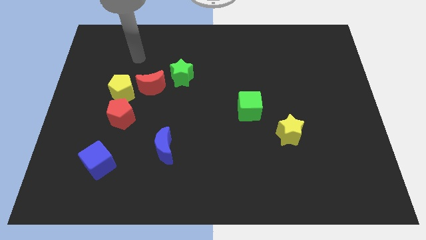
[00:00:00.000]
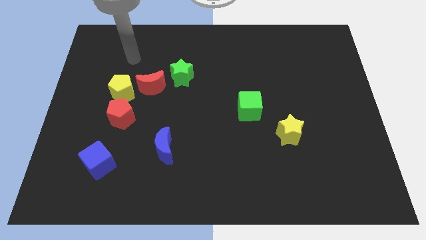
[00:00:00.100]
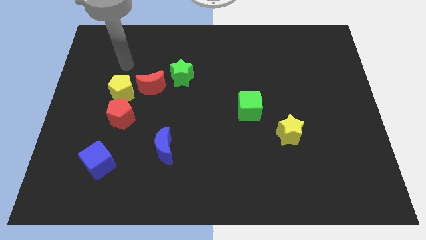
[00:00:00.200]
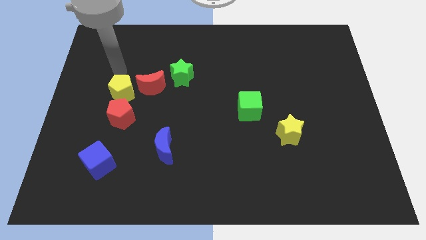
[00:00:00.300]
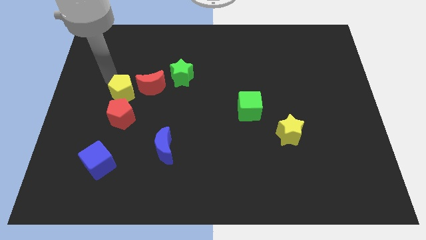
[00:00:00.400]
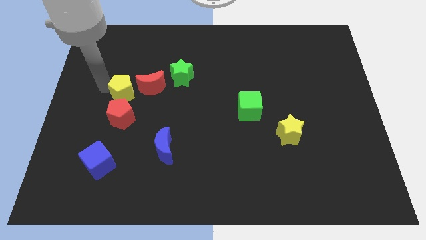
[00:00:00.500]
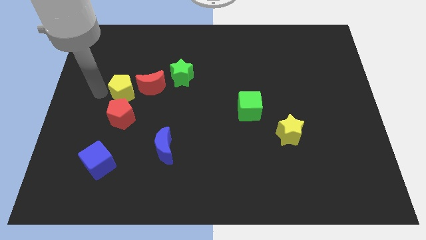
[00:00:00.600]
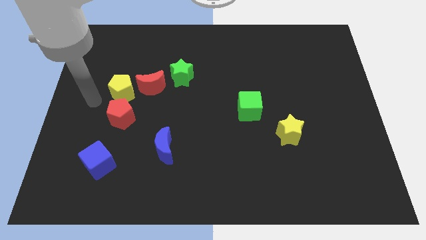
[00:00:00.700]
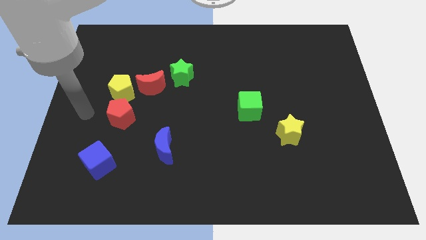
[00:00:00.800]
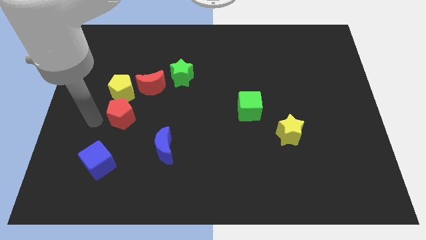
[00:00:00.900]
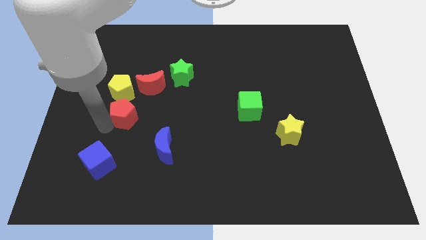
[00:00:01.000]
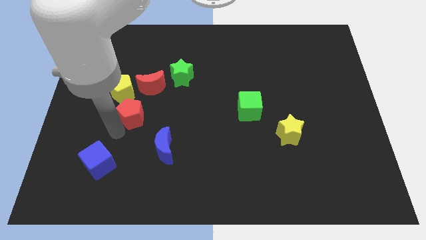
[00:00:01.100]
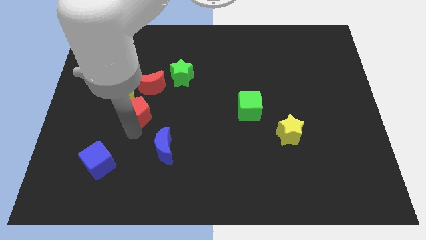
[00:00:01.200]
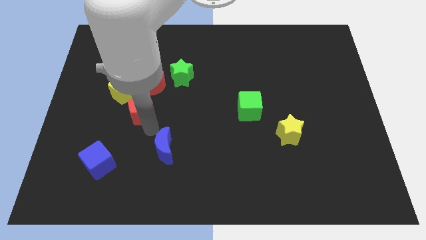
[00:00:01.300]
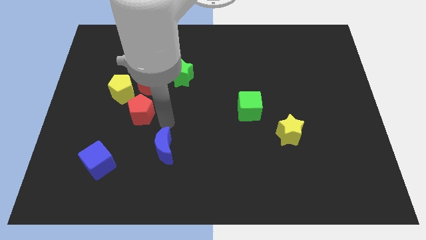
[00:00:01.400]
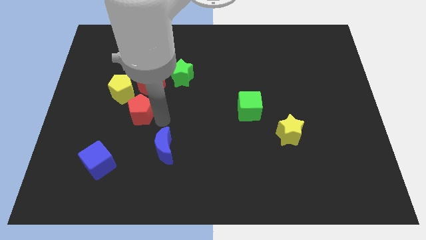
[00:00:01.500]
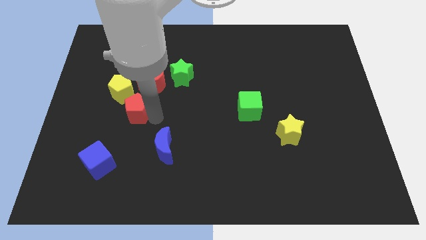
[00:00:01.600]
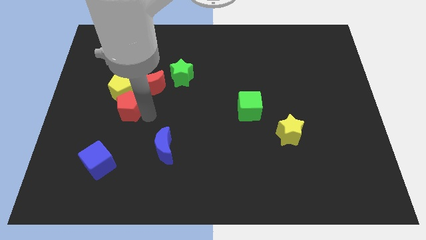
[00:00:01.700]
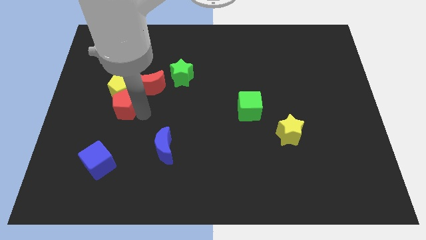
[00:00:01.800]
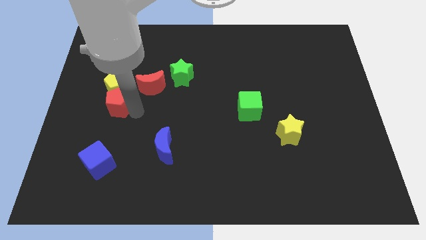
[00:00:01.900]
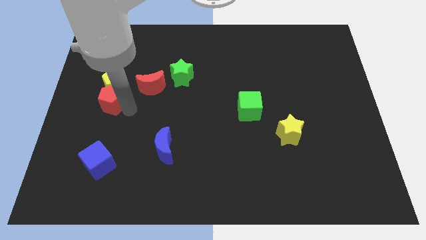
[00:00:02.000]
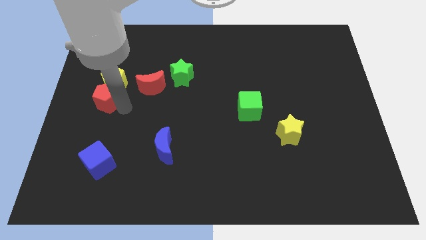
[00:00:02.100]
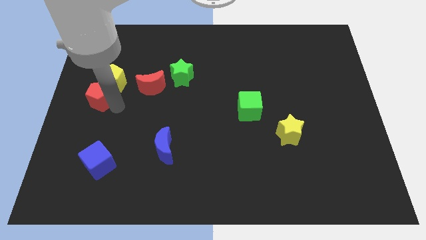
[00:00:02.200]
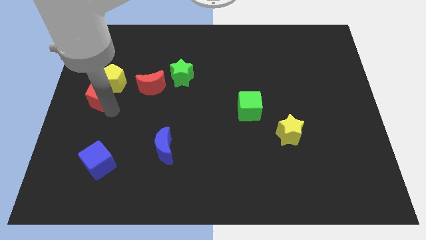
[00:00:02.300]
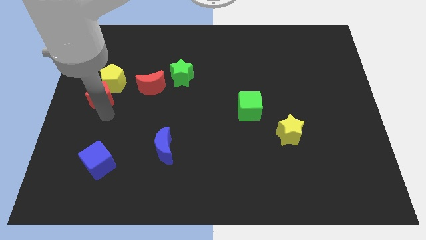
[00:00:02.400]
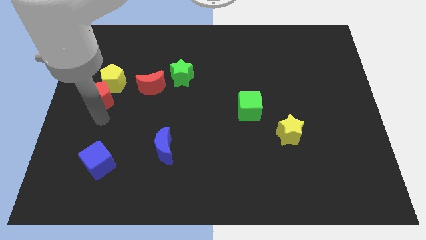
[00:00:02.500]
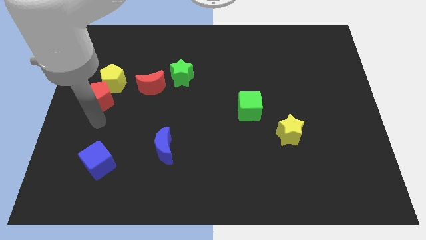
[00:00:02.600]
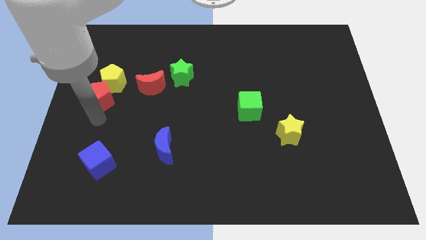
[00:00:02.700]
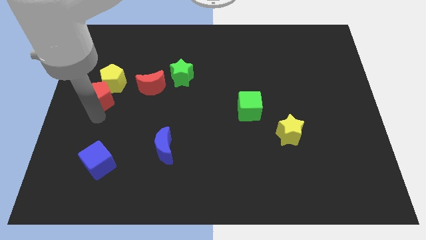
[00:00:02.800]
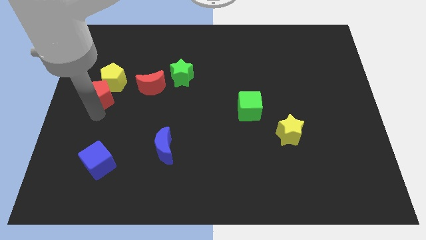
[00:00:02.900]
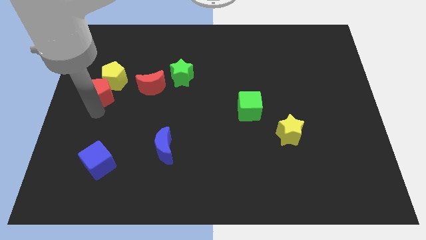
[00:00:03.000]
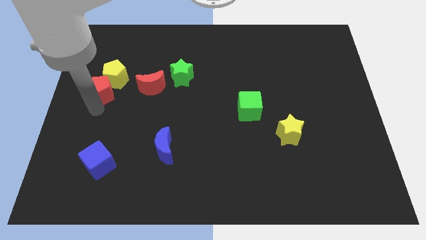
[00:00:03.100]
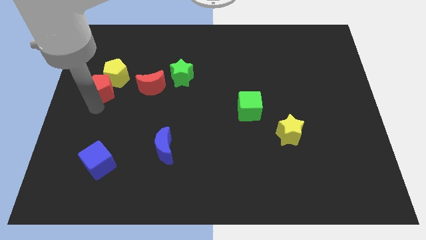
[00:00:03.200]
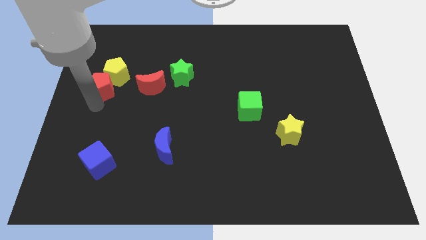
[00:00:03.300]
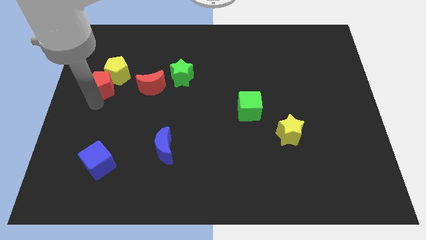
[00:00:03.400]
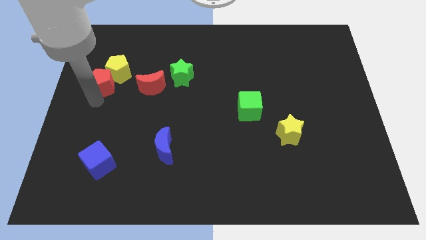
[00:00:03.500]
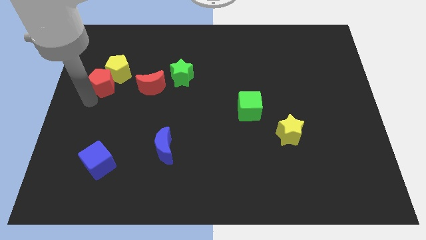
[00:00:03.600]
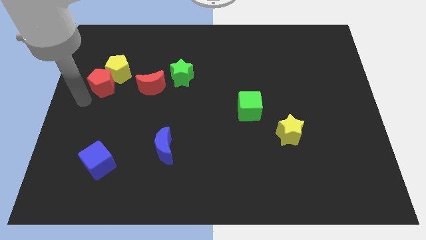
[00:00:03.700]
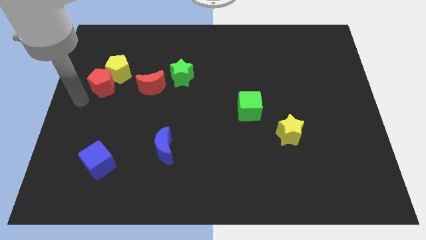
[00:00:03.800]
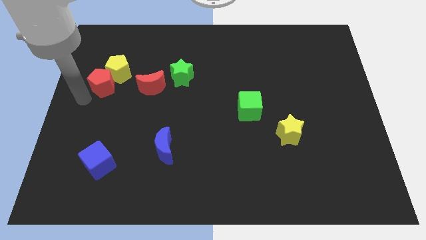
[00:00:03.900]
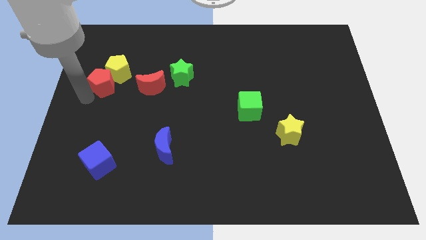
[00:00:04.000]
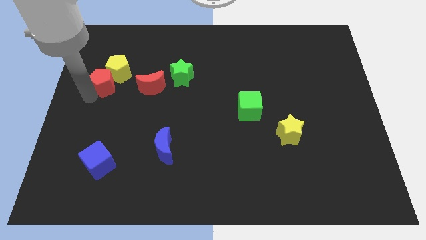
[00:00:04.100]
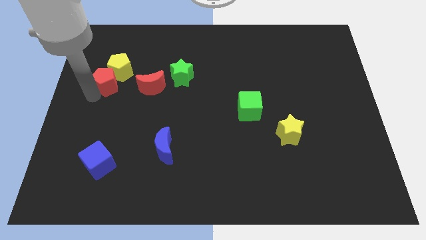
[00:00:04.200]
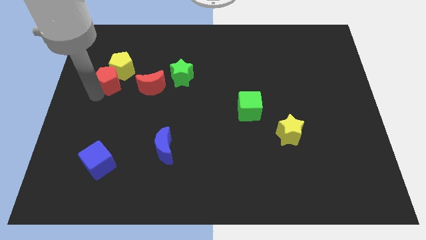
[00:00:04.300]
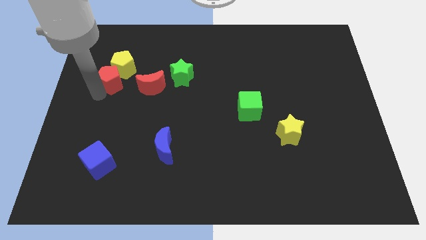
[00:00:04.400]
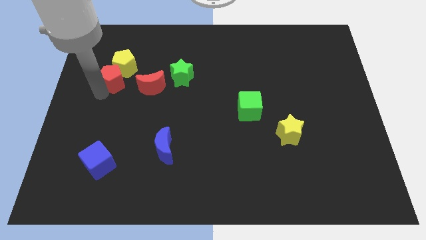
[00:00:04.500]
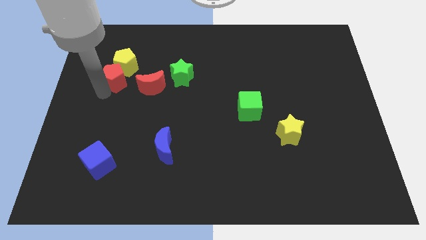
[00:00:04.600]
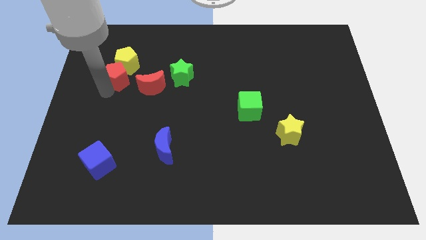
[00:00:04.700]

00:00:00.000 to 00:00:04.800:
push the red pentagon to the left of the green star

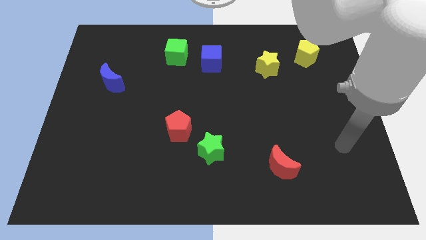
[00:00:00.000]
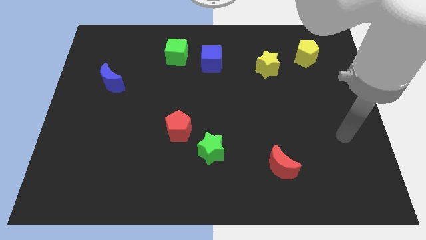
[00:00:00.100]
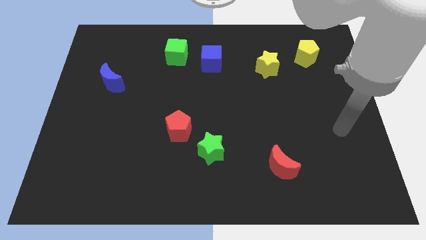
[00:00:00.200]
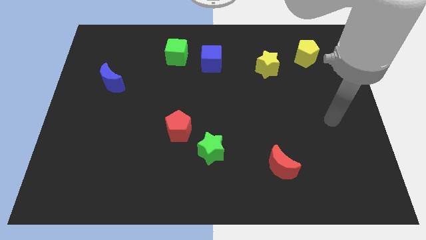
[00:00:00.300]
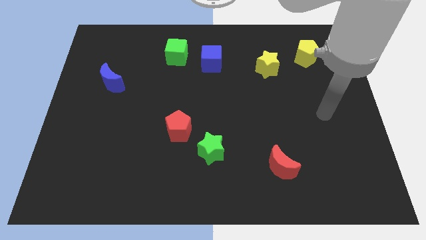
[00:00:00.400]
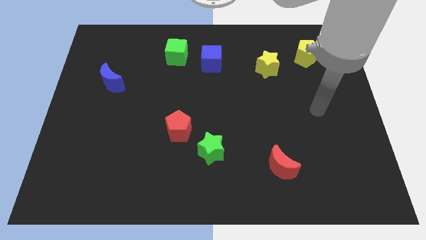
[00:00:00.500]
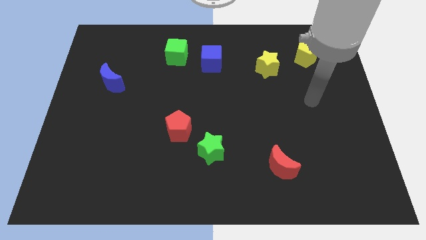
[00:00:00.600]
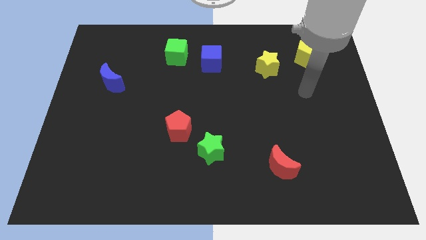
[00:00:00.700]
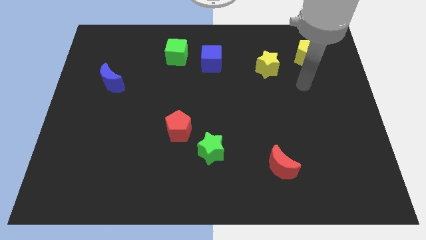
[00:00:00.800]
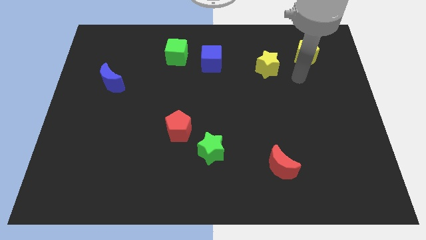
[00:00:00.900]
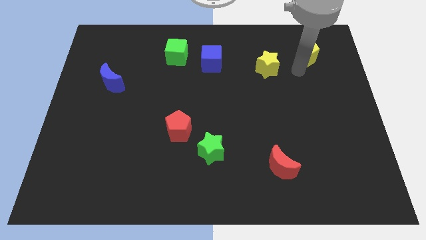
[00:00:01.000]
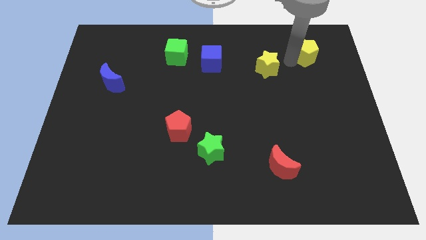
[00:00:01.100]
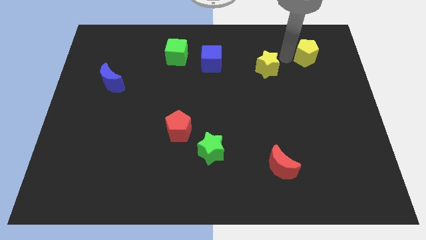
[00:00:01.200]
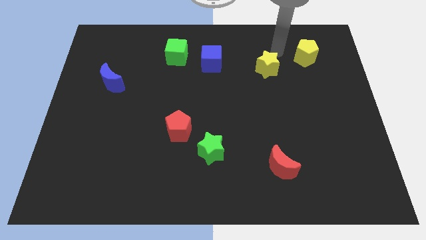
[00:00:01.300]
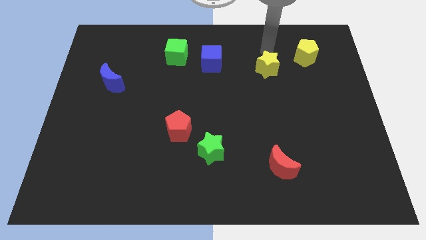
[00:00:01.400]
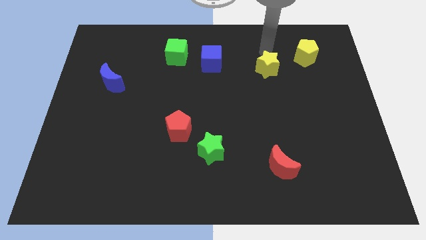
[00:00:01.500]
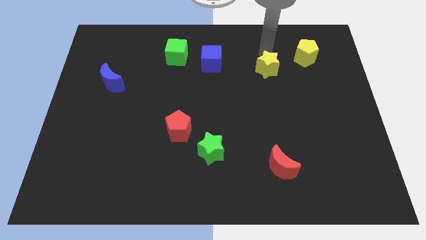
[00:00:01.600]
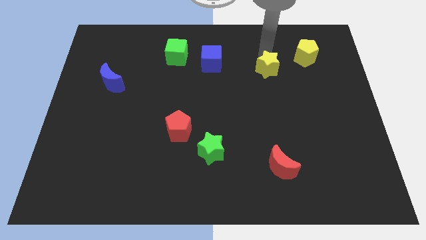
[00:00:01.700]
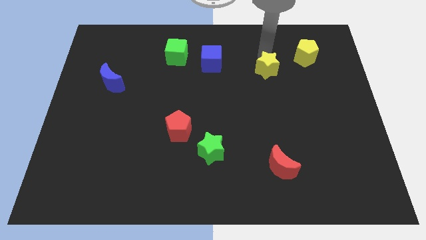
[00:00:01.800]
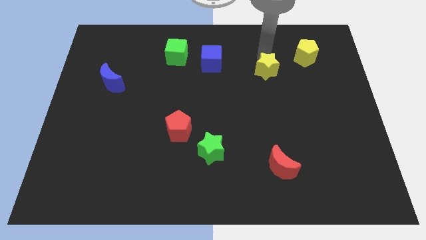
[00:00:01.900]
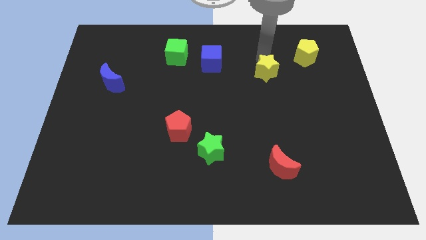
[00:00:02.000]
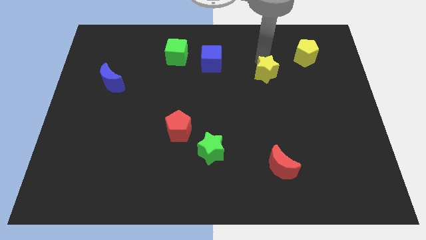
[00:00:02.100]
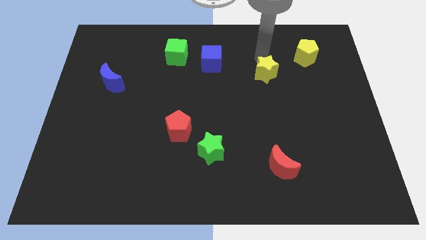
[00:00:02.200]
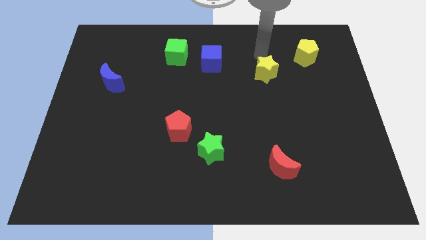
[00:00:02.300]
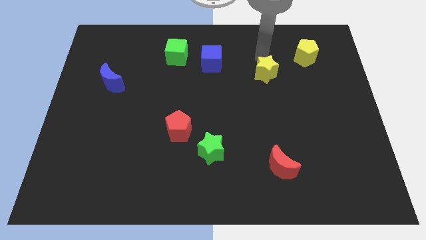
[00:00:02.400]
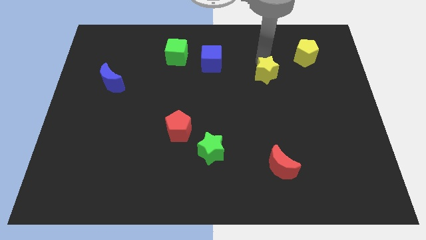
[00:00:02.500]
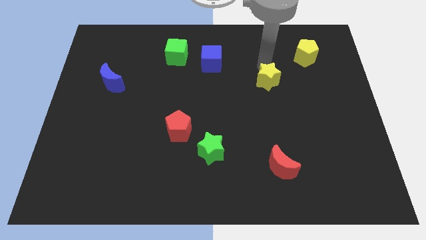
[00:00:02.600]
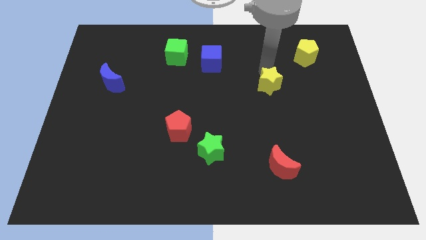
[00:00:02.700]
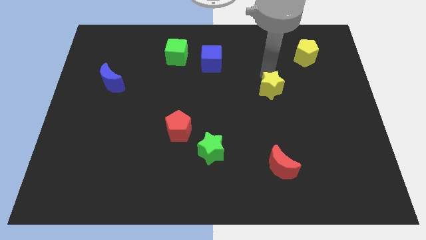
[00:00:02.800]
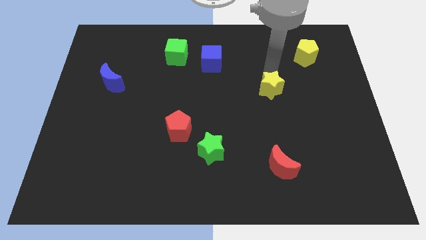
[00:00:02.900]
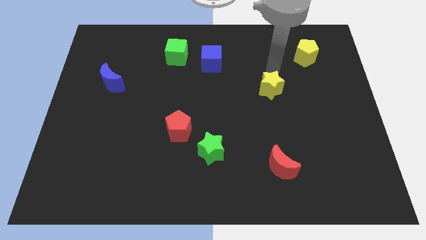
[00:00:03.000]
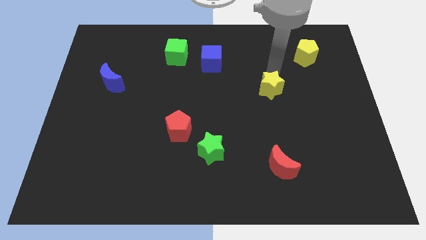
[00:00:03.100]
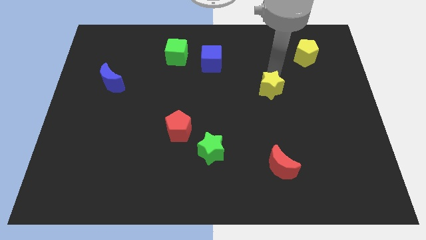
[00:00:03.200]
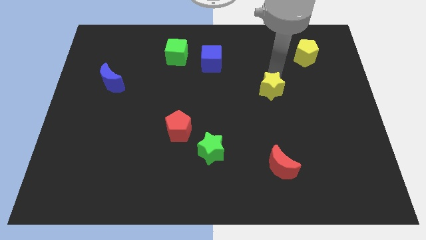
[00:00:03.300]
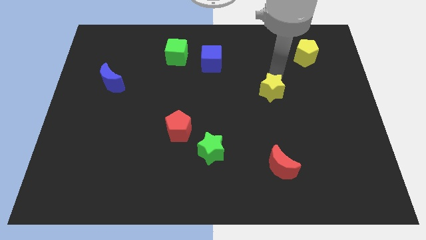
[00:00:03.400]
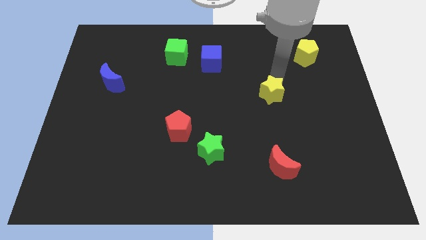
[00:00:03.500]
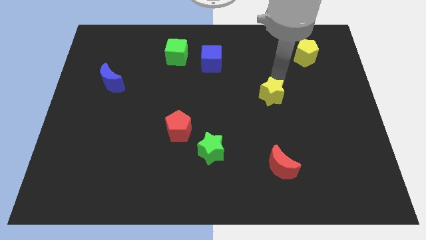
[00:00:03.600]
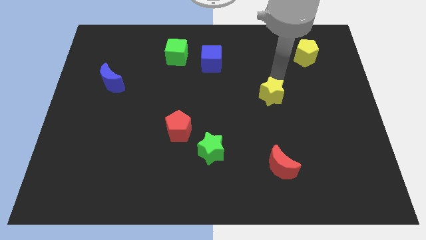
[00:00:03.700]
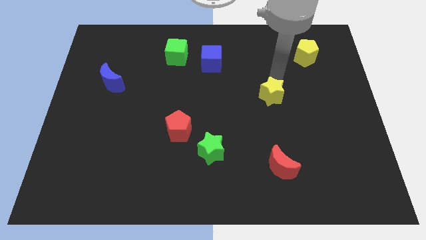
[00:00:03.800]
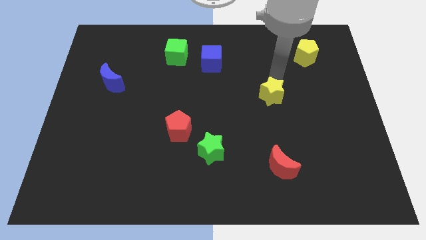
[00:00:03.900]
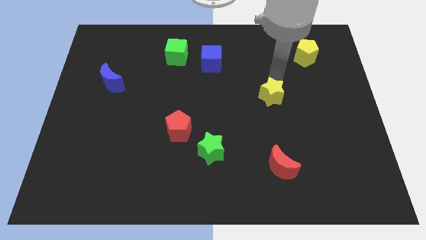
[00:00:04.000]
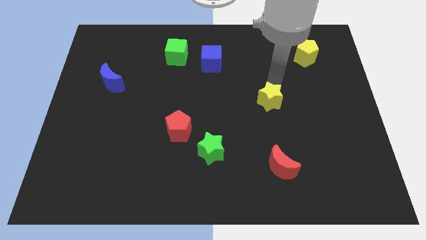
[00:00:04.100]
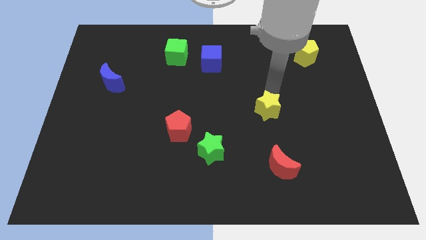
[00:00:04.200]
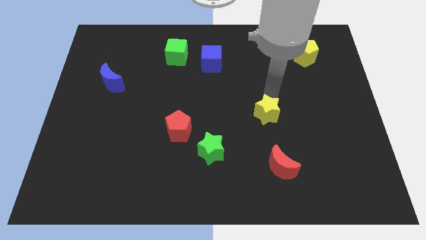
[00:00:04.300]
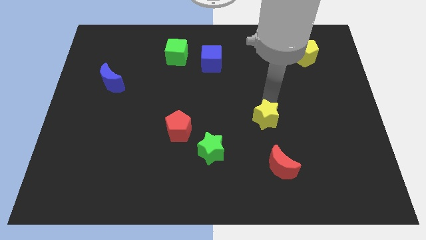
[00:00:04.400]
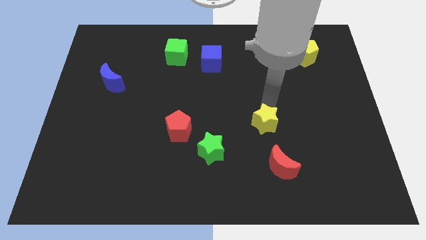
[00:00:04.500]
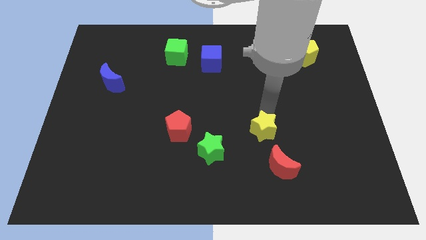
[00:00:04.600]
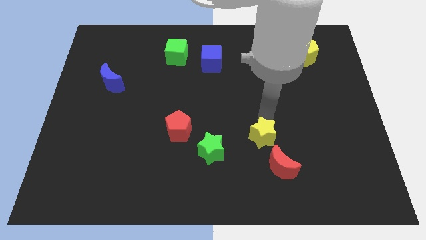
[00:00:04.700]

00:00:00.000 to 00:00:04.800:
slide the yellow star to the right side of the green star
